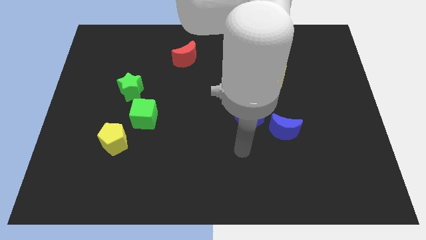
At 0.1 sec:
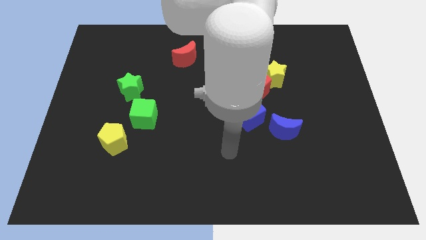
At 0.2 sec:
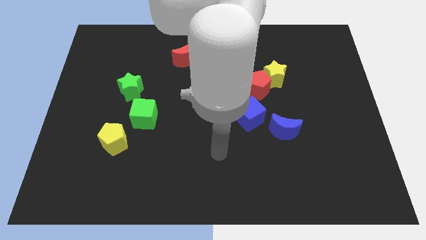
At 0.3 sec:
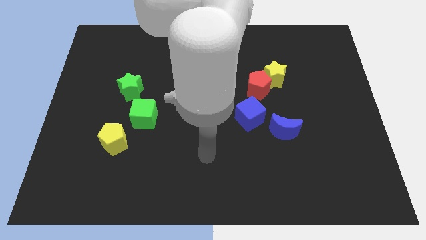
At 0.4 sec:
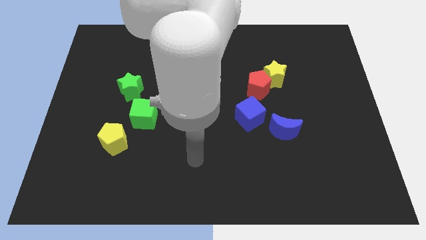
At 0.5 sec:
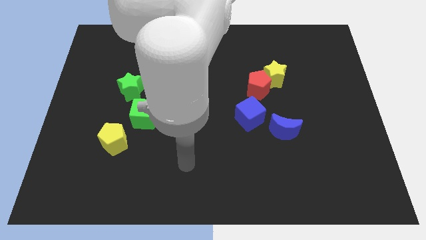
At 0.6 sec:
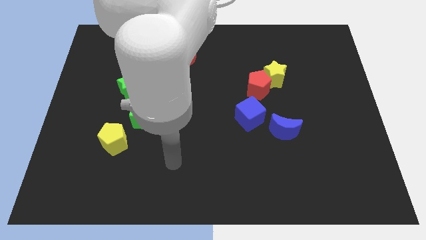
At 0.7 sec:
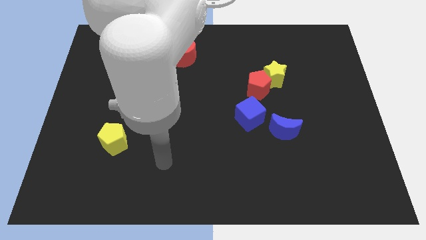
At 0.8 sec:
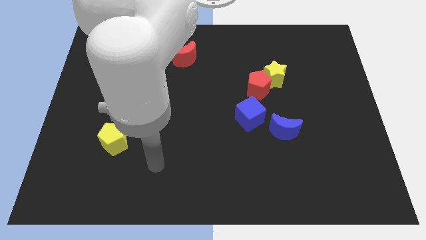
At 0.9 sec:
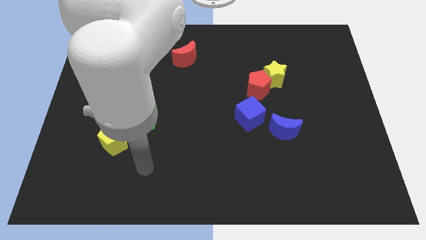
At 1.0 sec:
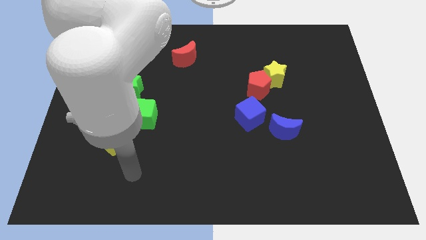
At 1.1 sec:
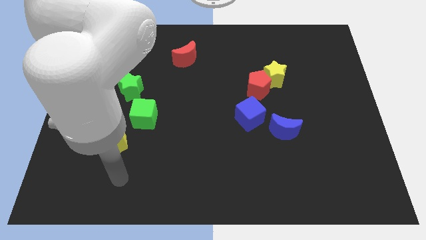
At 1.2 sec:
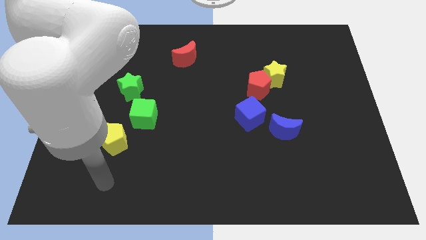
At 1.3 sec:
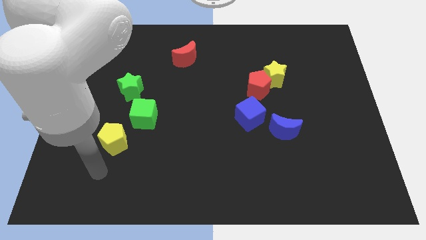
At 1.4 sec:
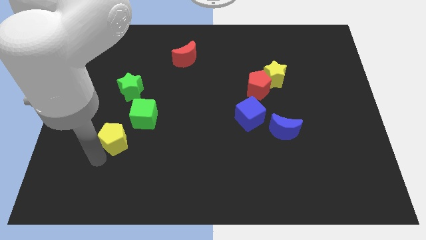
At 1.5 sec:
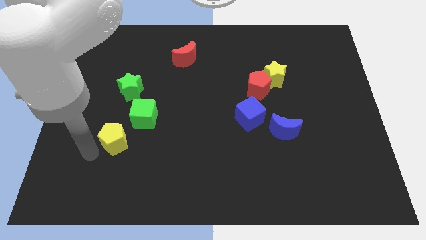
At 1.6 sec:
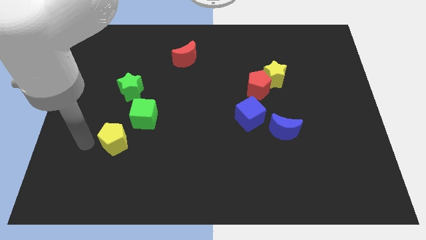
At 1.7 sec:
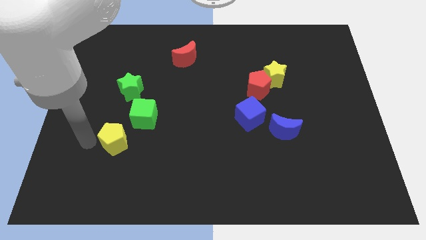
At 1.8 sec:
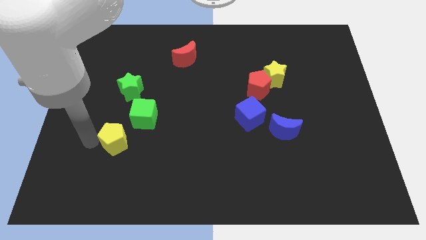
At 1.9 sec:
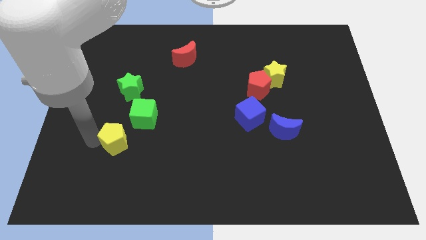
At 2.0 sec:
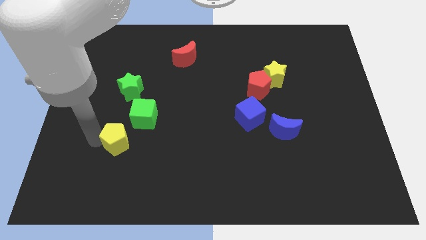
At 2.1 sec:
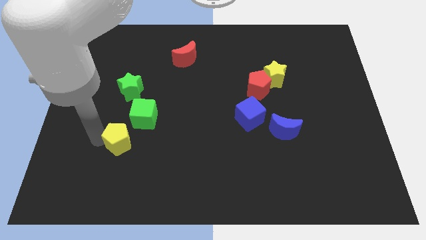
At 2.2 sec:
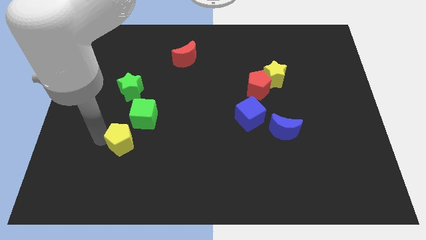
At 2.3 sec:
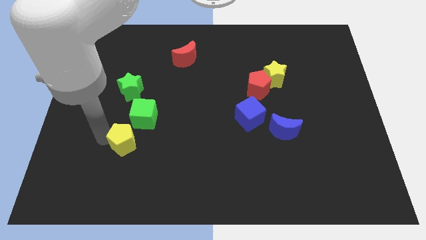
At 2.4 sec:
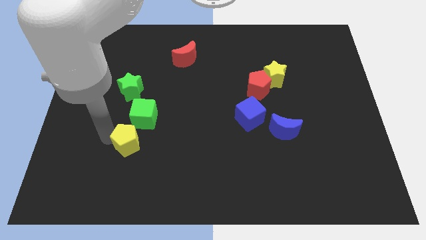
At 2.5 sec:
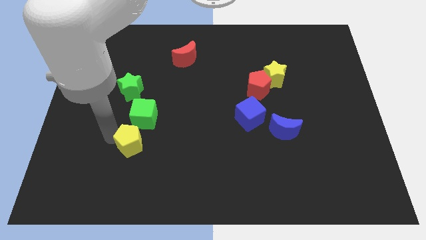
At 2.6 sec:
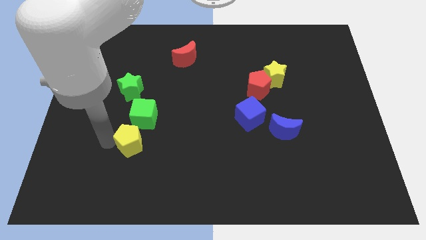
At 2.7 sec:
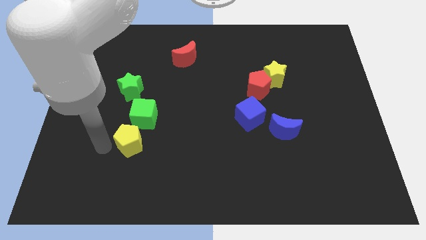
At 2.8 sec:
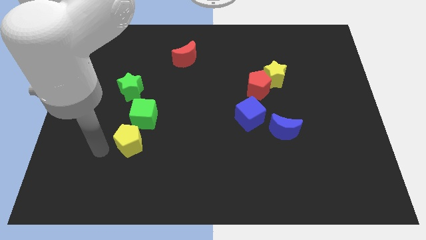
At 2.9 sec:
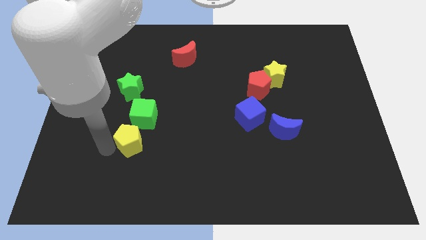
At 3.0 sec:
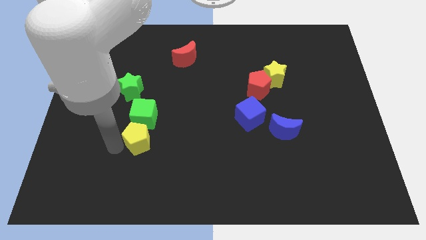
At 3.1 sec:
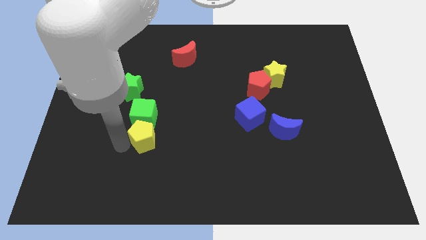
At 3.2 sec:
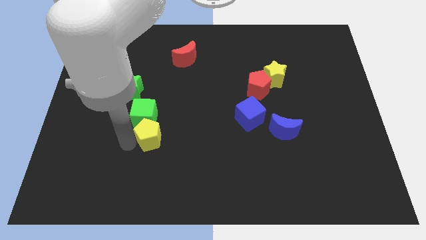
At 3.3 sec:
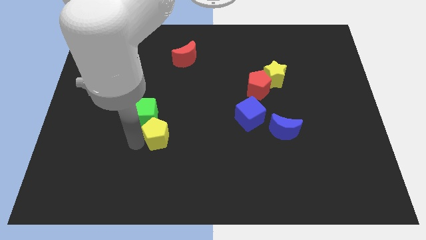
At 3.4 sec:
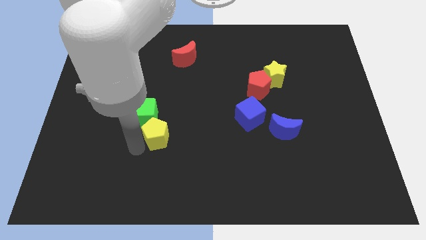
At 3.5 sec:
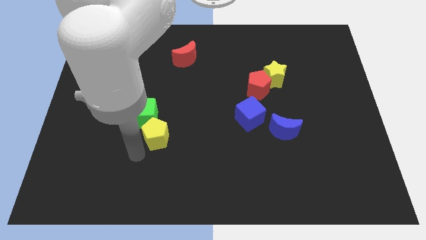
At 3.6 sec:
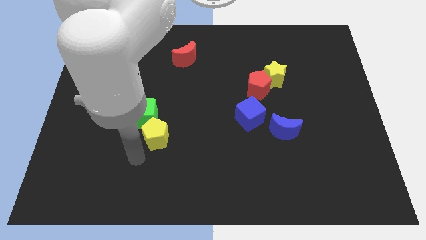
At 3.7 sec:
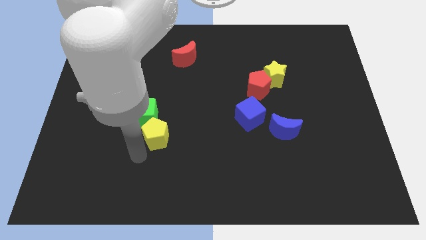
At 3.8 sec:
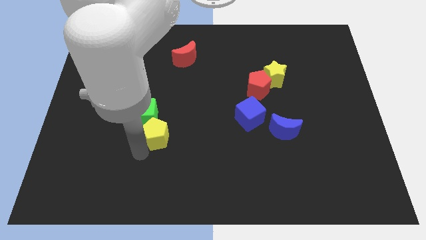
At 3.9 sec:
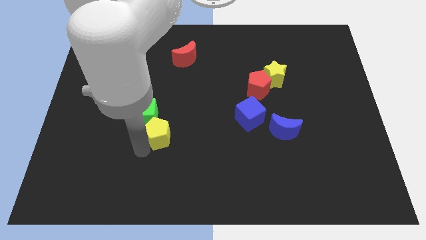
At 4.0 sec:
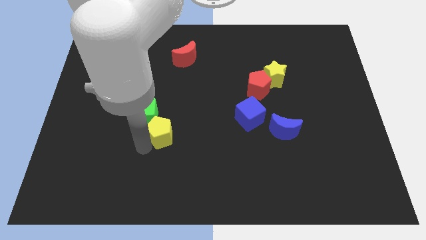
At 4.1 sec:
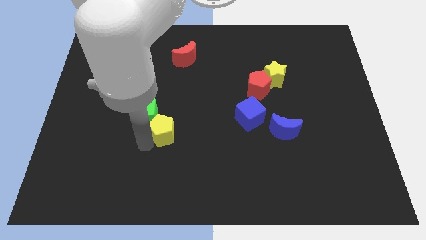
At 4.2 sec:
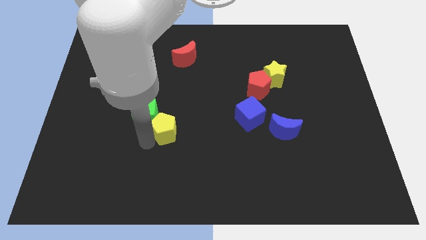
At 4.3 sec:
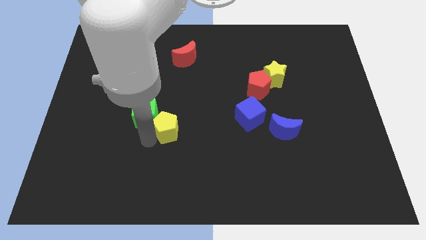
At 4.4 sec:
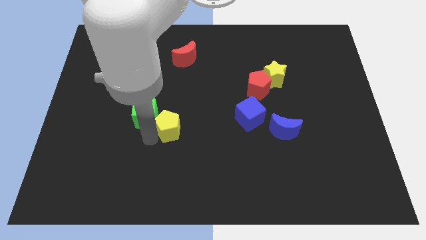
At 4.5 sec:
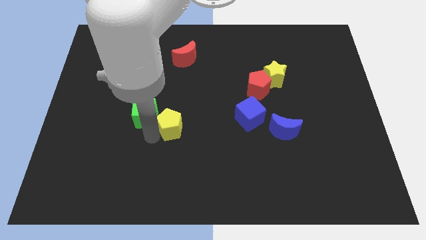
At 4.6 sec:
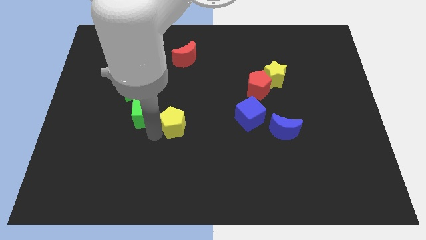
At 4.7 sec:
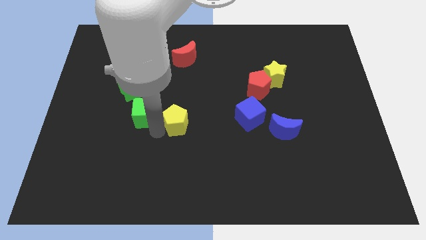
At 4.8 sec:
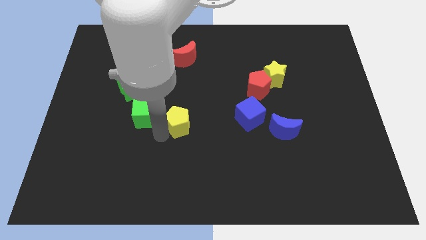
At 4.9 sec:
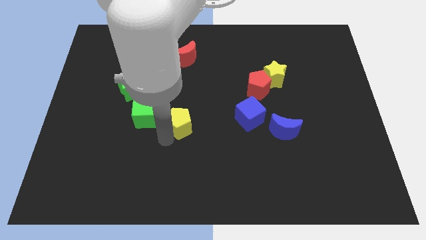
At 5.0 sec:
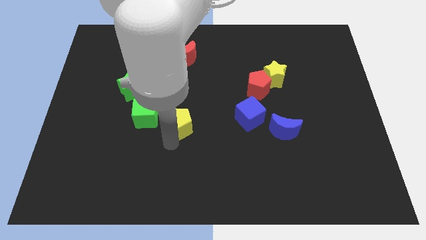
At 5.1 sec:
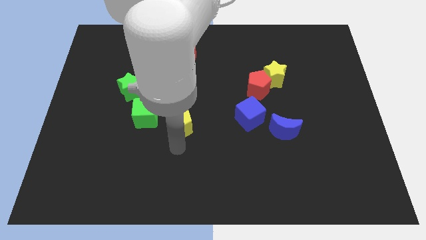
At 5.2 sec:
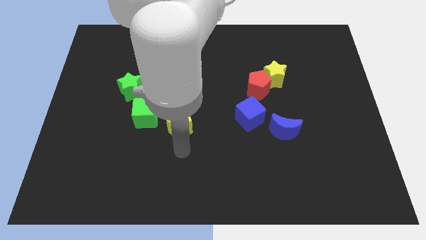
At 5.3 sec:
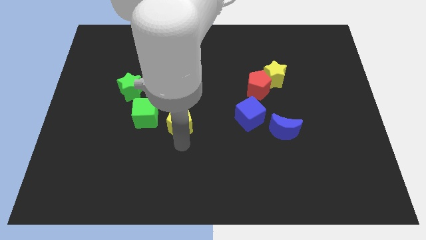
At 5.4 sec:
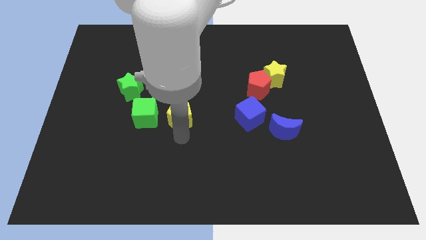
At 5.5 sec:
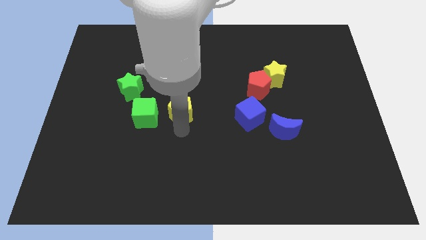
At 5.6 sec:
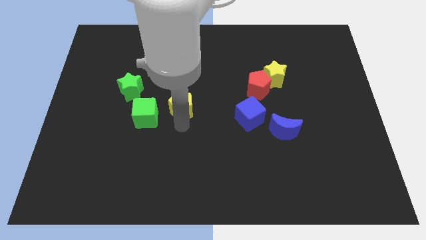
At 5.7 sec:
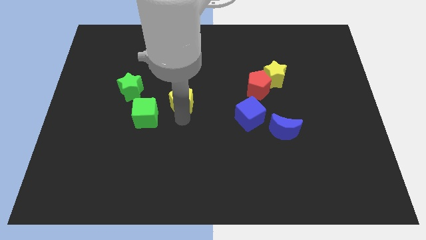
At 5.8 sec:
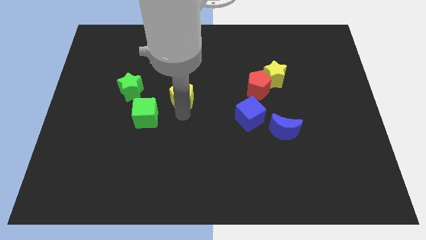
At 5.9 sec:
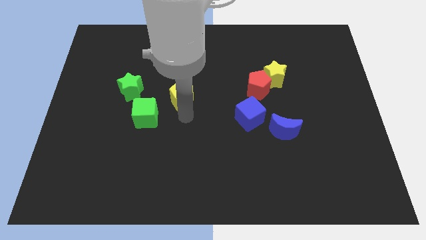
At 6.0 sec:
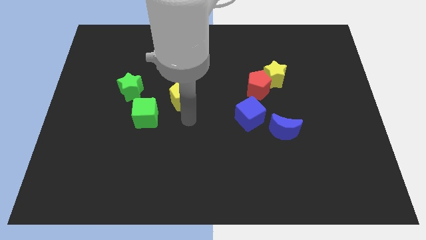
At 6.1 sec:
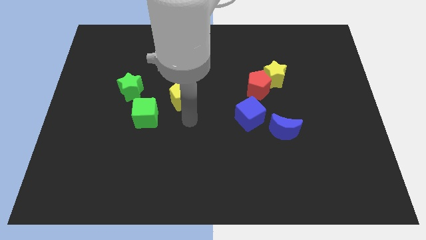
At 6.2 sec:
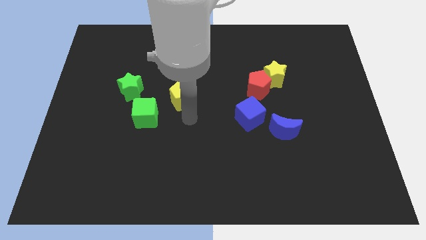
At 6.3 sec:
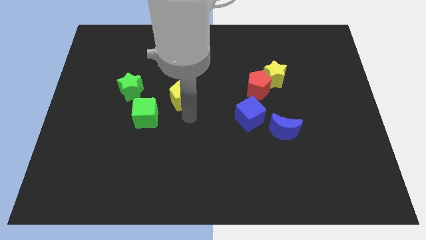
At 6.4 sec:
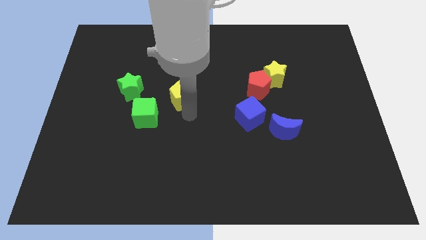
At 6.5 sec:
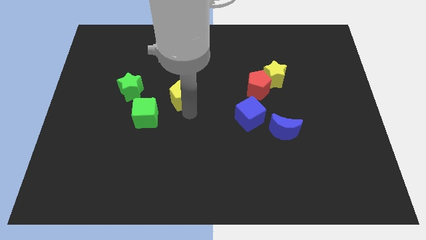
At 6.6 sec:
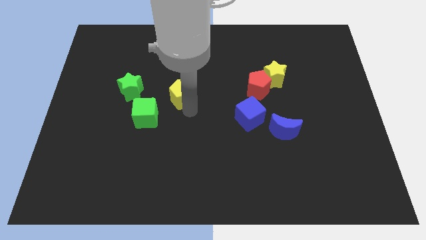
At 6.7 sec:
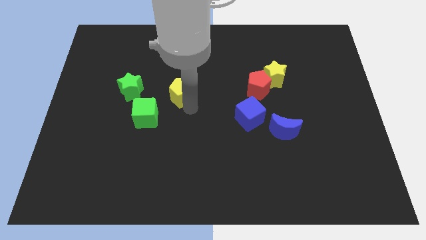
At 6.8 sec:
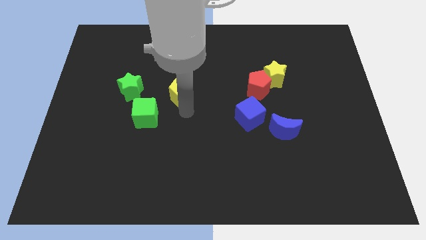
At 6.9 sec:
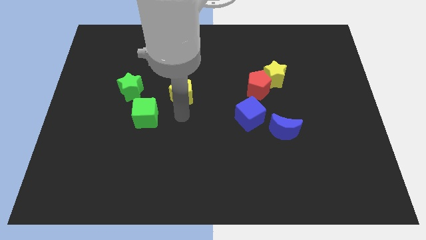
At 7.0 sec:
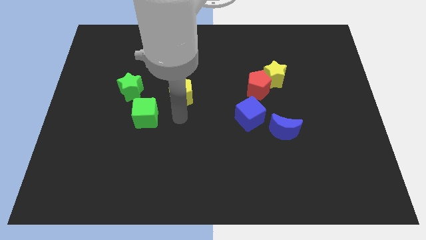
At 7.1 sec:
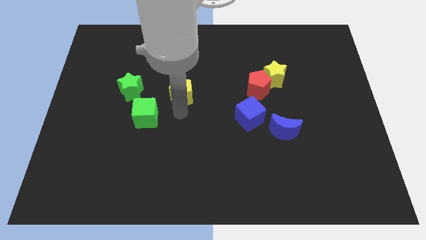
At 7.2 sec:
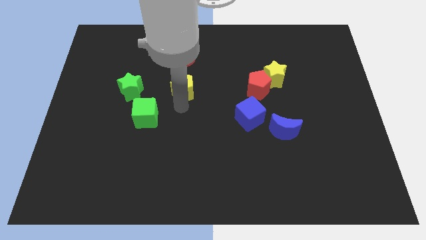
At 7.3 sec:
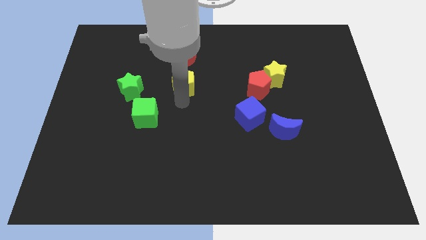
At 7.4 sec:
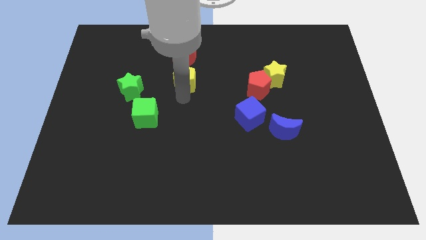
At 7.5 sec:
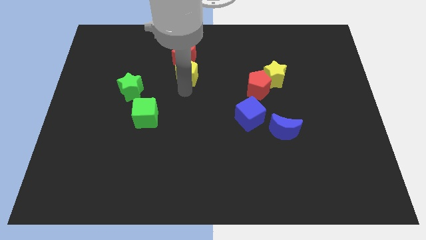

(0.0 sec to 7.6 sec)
put the yellow pentagon towards the red moon
